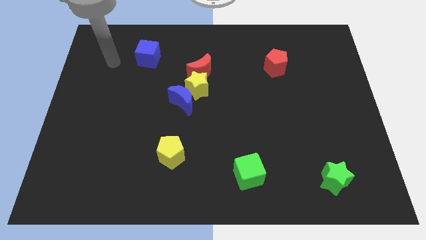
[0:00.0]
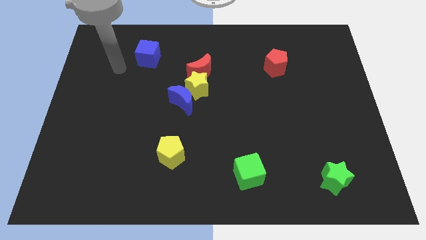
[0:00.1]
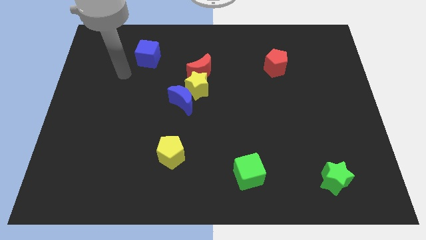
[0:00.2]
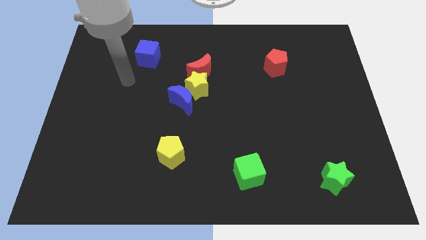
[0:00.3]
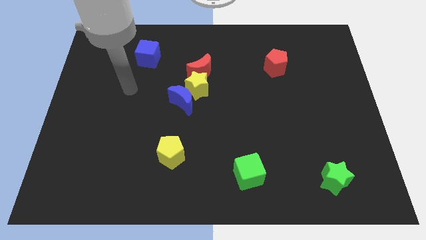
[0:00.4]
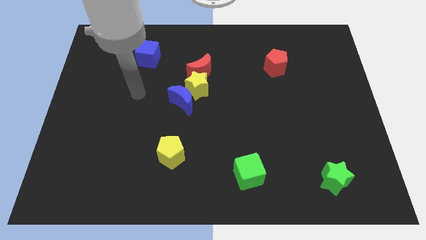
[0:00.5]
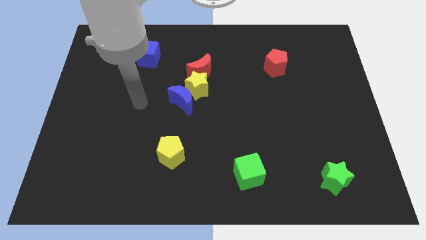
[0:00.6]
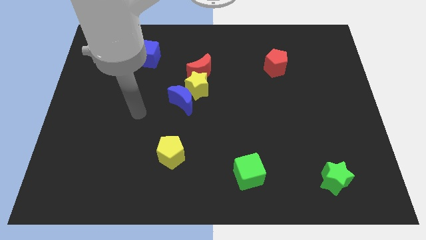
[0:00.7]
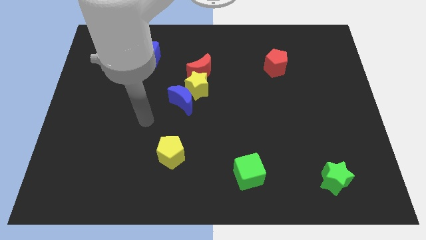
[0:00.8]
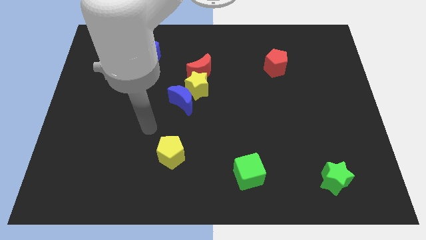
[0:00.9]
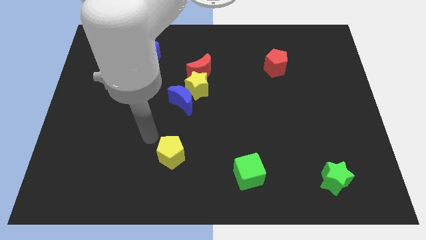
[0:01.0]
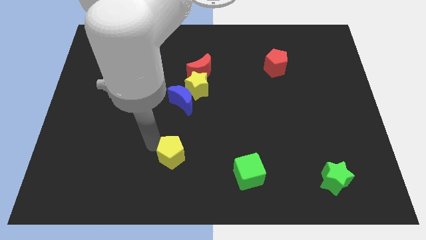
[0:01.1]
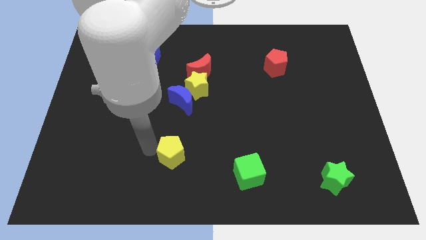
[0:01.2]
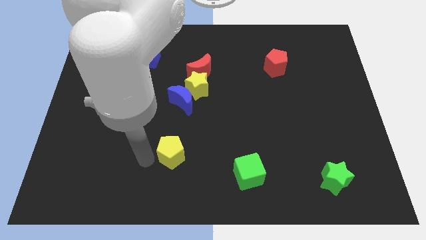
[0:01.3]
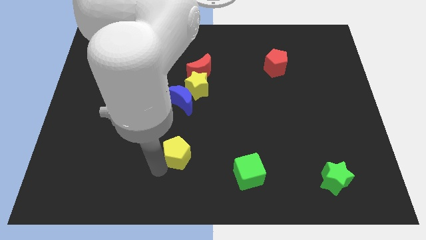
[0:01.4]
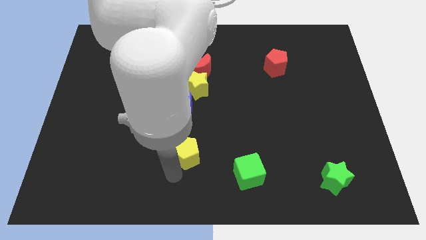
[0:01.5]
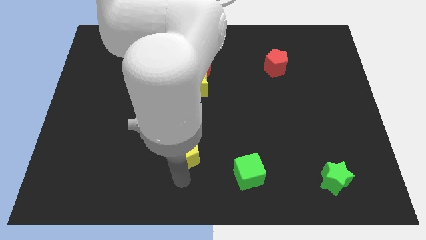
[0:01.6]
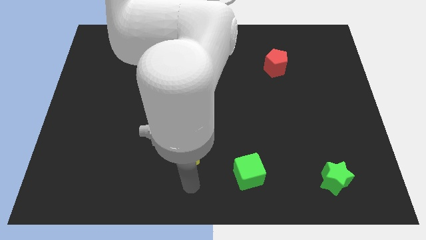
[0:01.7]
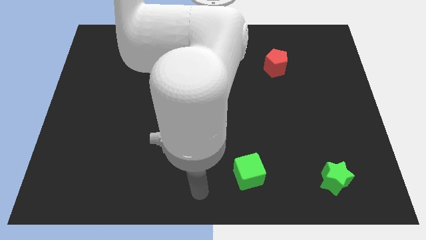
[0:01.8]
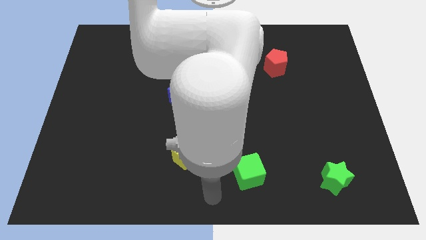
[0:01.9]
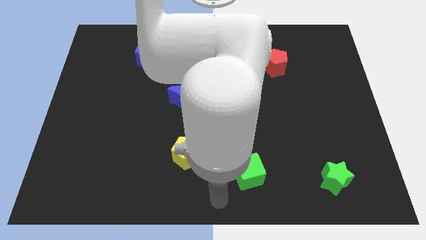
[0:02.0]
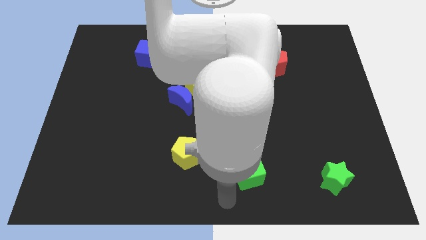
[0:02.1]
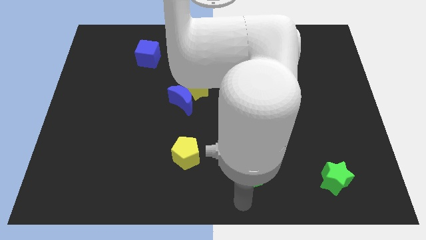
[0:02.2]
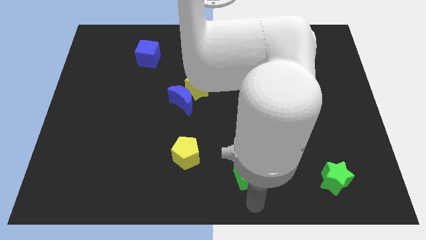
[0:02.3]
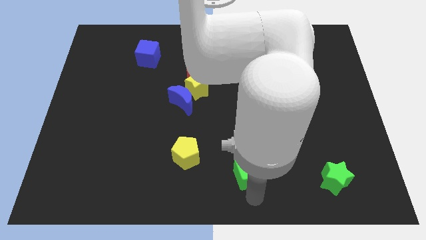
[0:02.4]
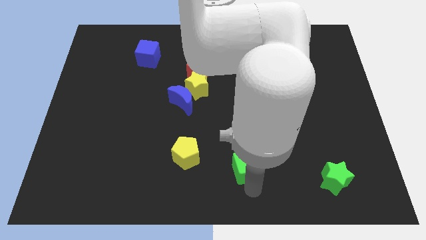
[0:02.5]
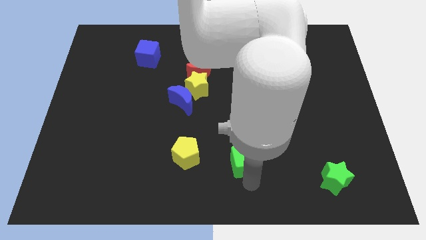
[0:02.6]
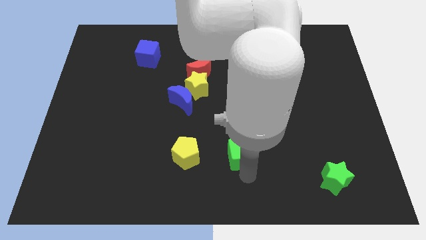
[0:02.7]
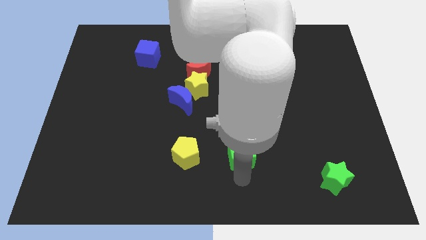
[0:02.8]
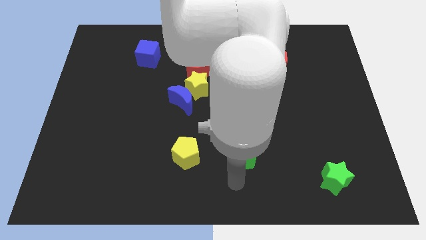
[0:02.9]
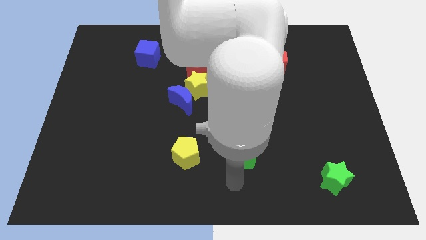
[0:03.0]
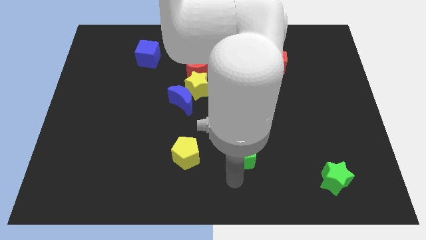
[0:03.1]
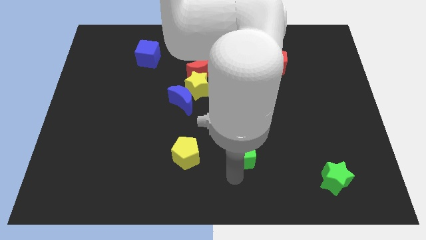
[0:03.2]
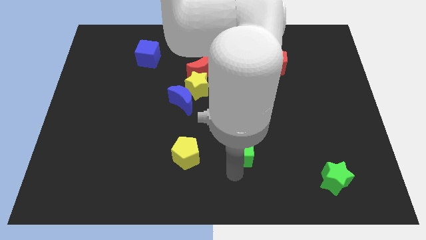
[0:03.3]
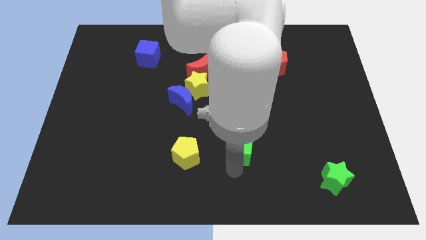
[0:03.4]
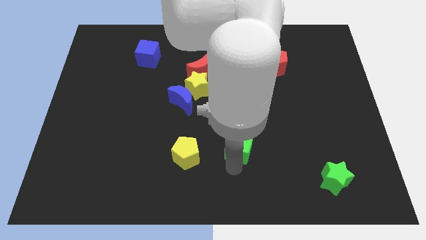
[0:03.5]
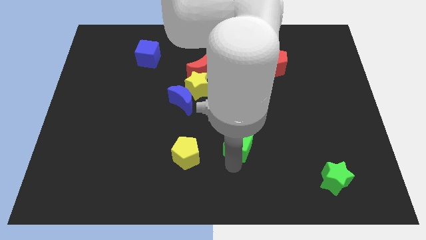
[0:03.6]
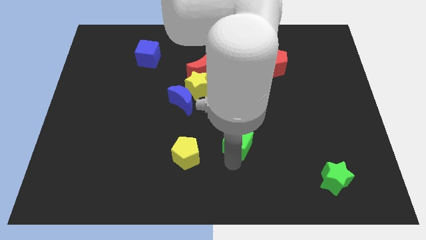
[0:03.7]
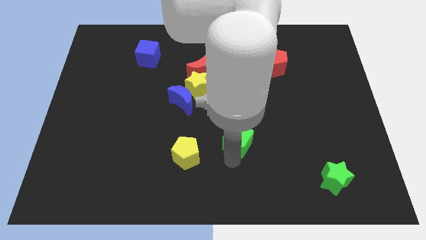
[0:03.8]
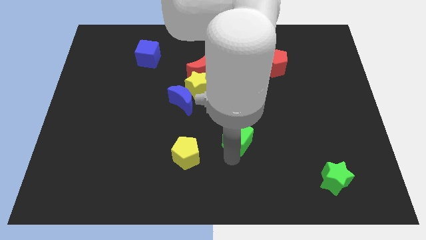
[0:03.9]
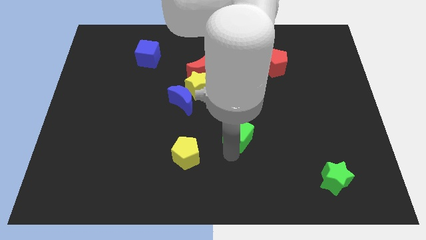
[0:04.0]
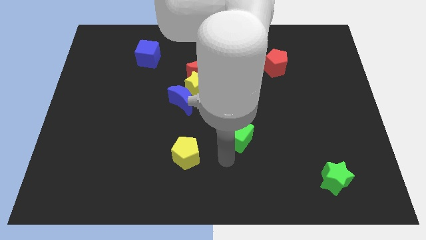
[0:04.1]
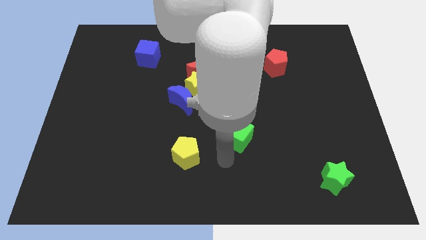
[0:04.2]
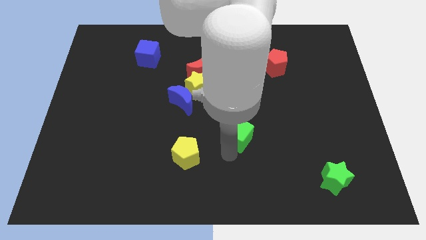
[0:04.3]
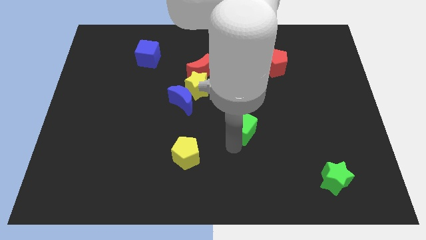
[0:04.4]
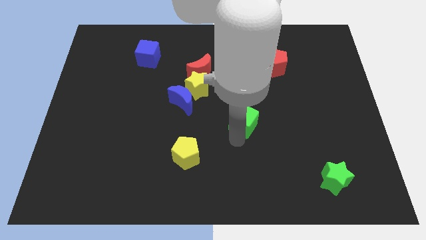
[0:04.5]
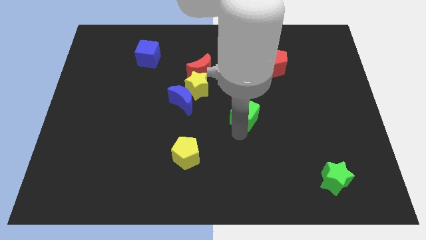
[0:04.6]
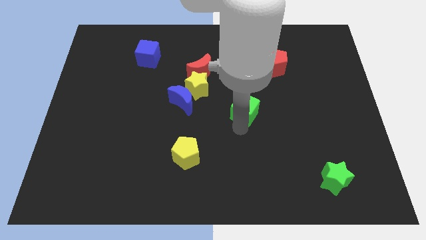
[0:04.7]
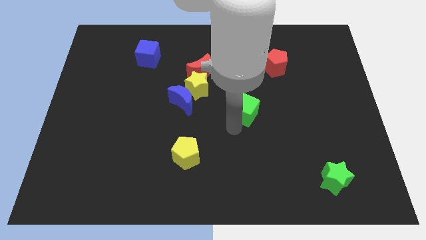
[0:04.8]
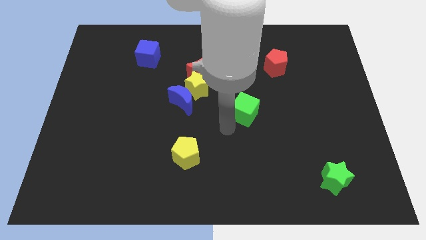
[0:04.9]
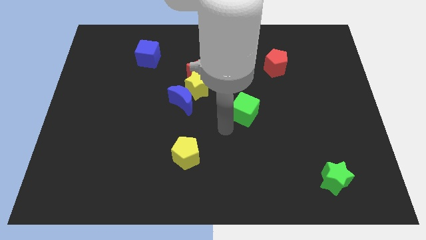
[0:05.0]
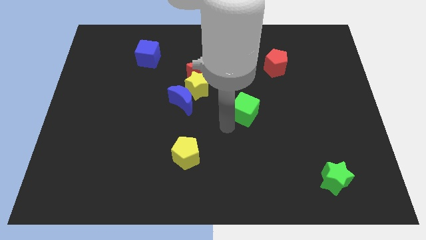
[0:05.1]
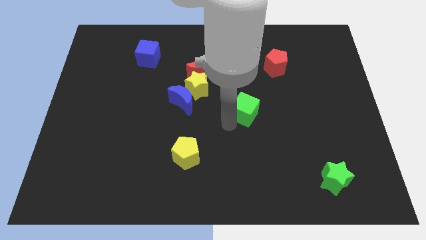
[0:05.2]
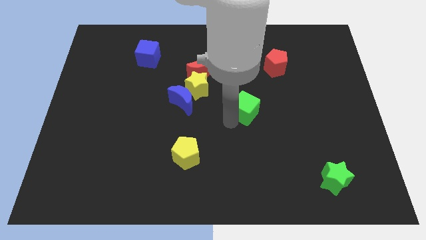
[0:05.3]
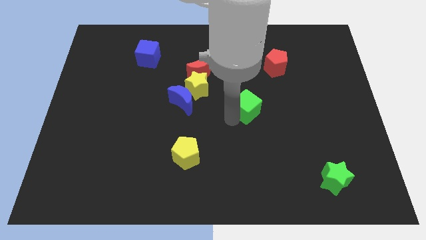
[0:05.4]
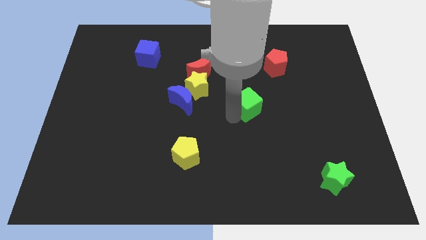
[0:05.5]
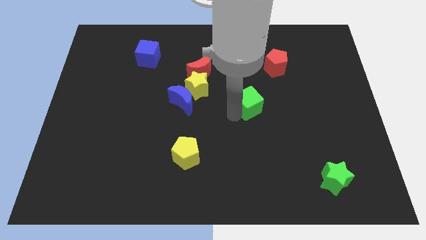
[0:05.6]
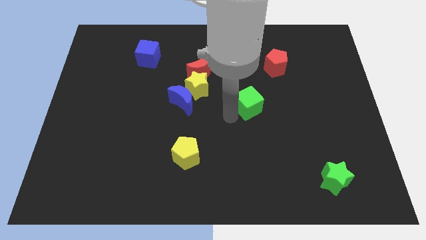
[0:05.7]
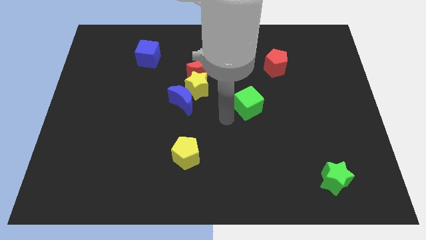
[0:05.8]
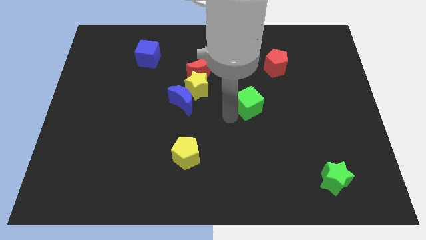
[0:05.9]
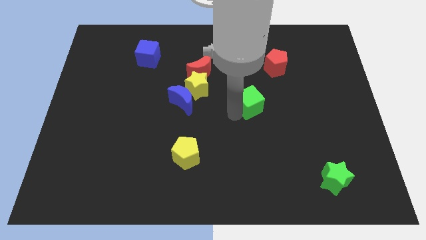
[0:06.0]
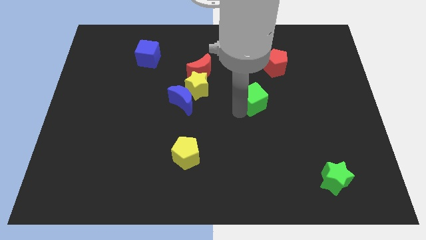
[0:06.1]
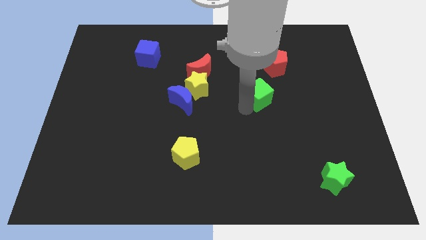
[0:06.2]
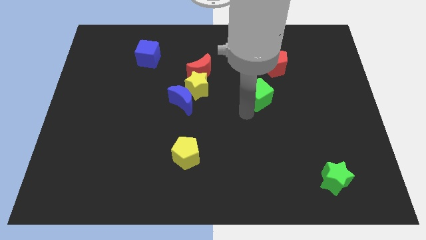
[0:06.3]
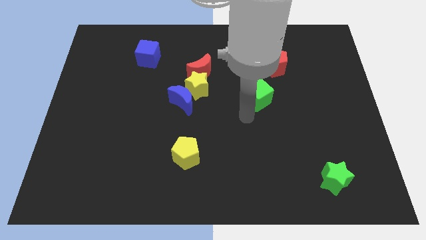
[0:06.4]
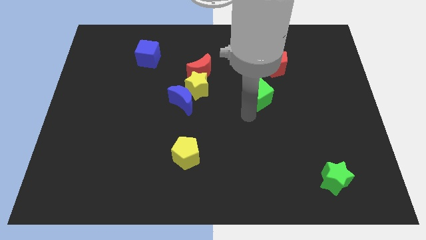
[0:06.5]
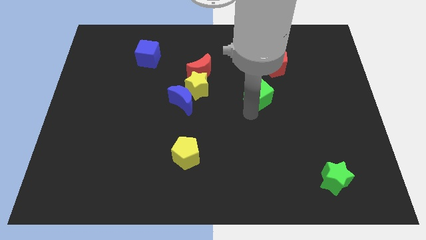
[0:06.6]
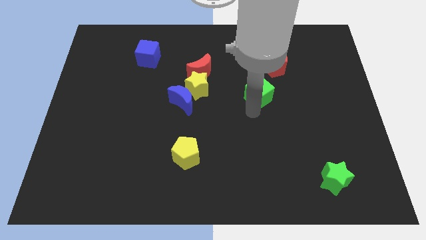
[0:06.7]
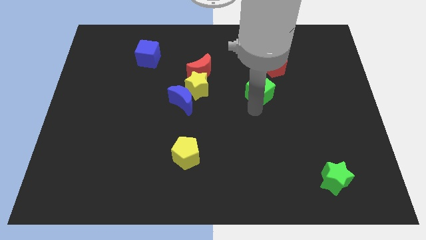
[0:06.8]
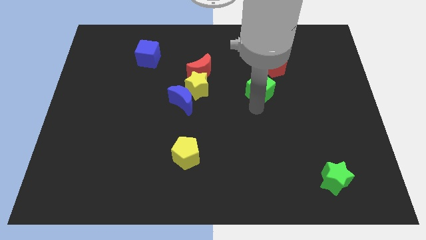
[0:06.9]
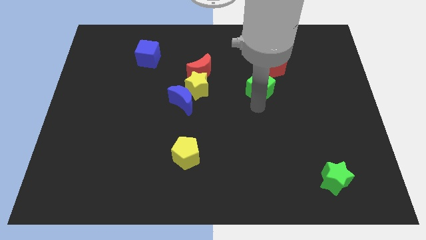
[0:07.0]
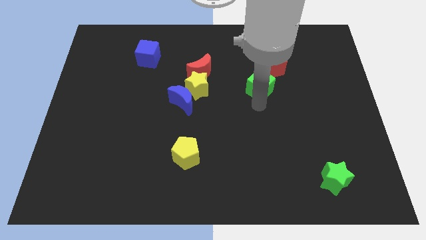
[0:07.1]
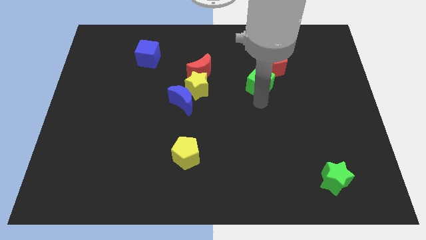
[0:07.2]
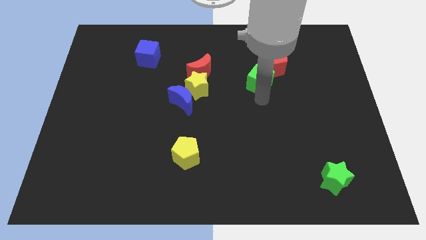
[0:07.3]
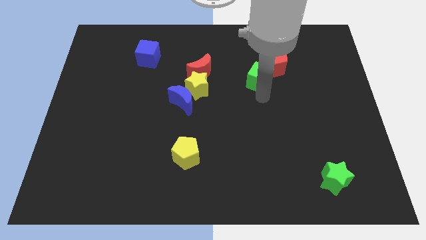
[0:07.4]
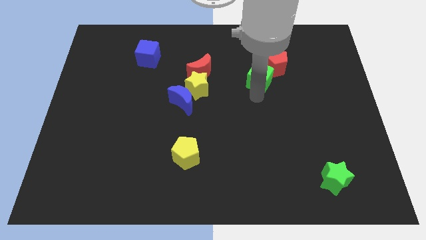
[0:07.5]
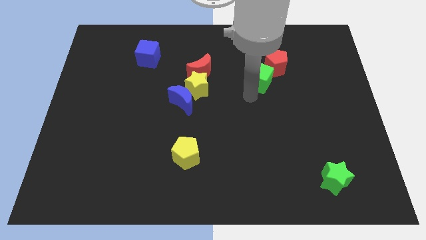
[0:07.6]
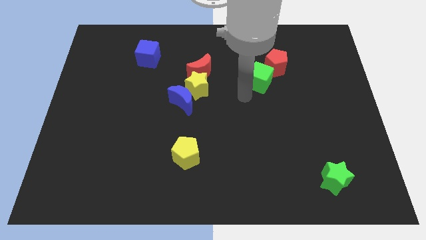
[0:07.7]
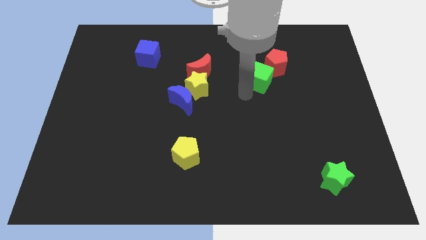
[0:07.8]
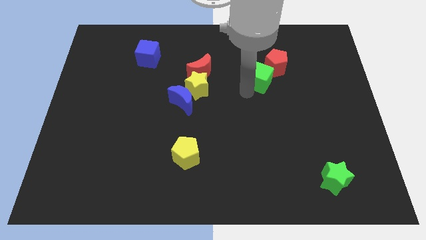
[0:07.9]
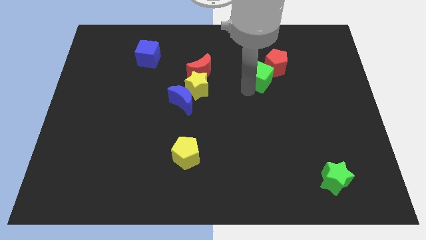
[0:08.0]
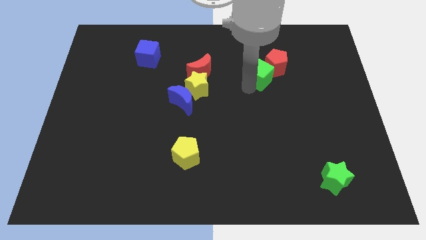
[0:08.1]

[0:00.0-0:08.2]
move the green cube to the red pentagon
